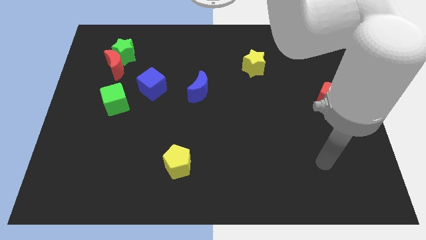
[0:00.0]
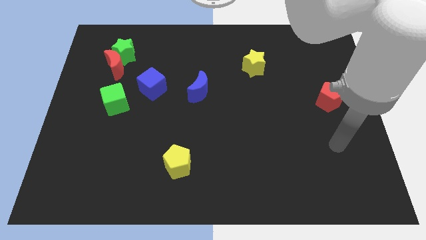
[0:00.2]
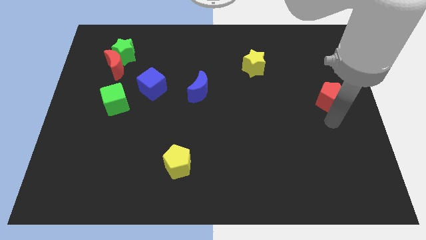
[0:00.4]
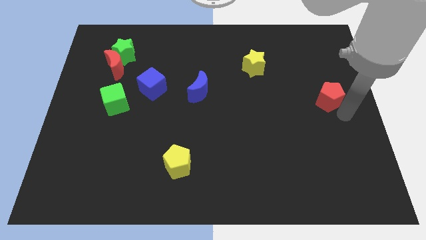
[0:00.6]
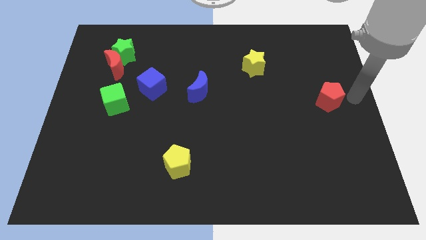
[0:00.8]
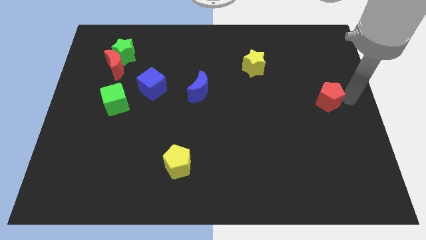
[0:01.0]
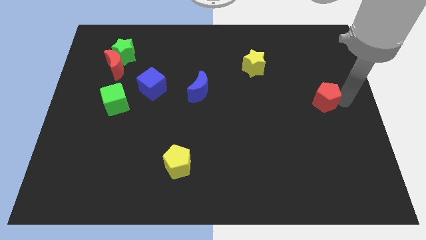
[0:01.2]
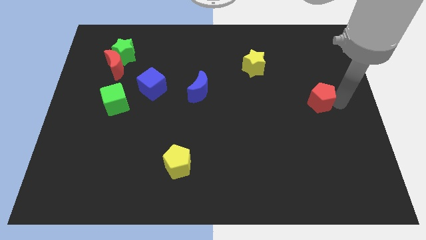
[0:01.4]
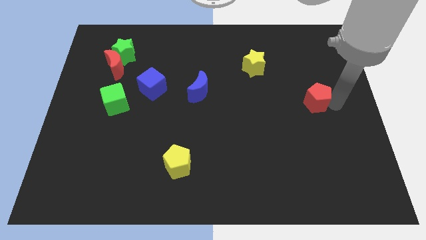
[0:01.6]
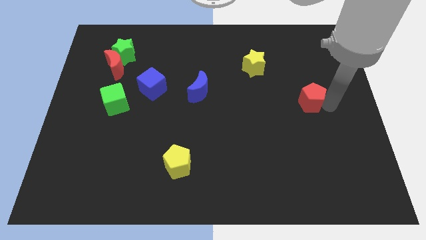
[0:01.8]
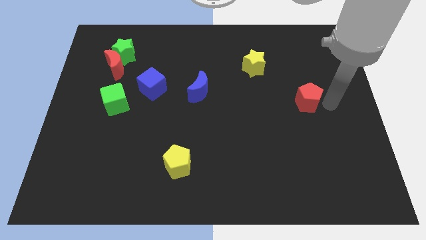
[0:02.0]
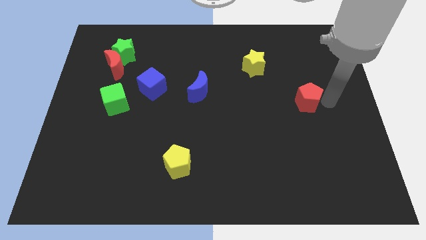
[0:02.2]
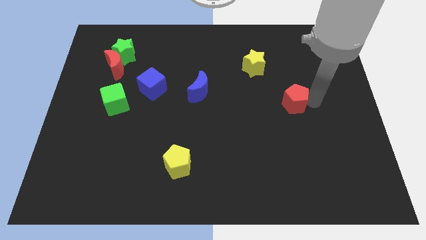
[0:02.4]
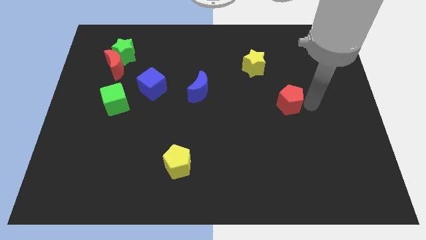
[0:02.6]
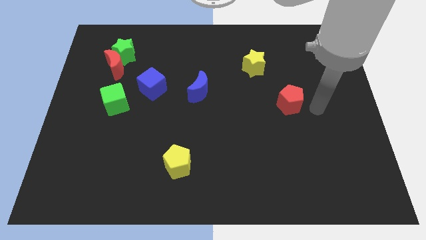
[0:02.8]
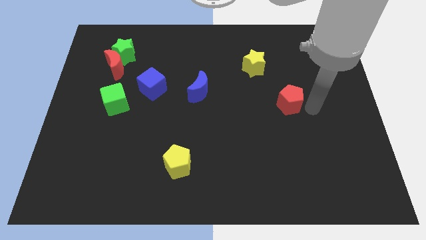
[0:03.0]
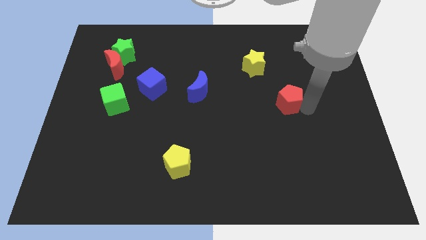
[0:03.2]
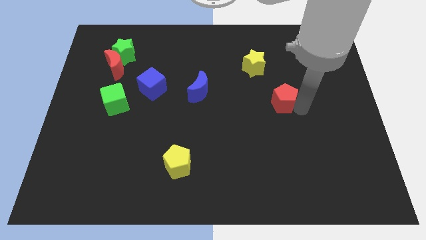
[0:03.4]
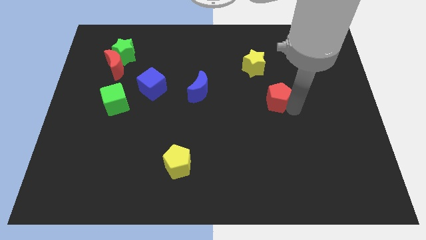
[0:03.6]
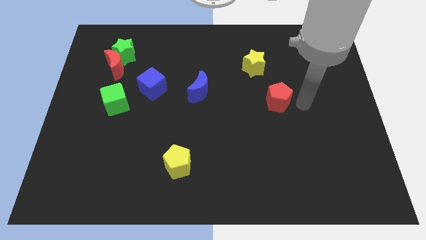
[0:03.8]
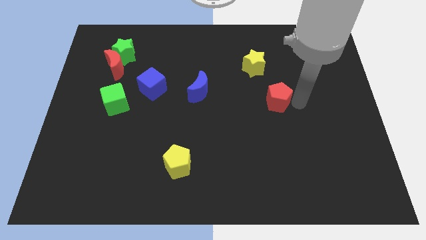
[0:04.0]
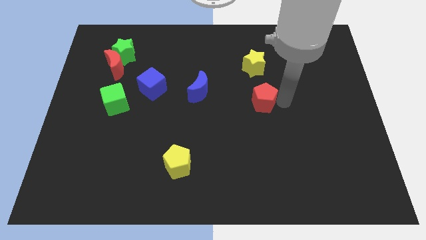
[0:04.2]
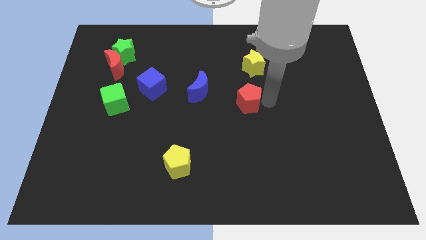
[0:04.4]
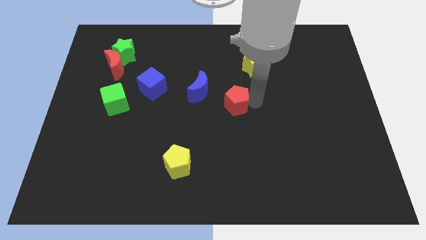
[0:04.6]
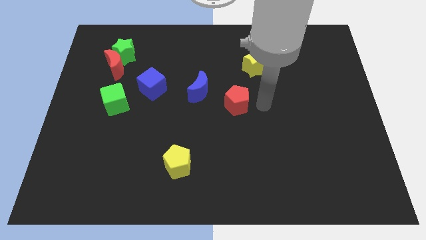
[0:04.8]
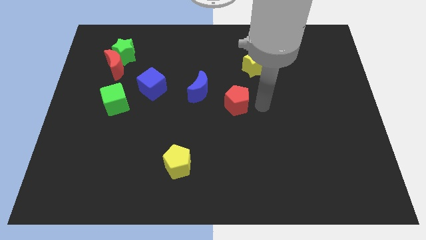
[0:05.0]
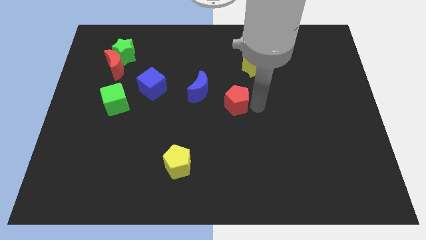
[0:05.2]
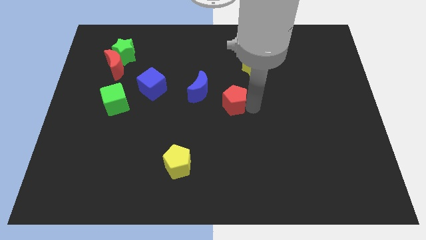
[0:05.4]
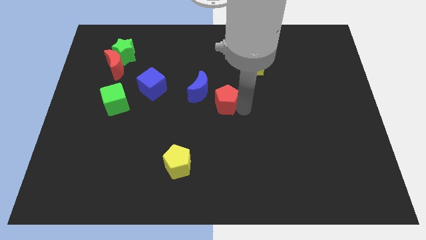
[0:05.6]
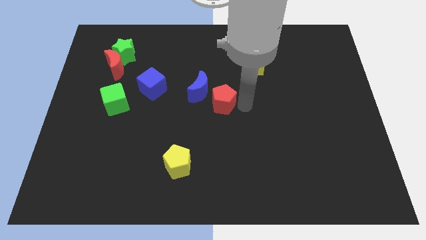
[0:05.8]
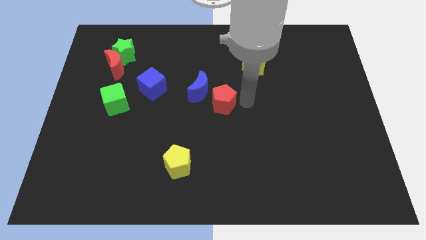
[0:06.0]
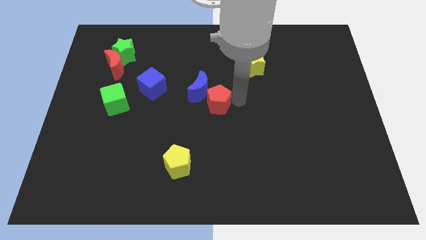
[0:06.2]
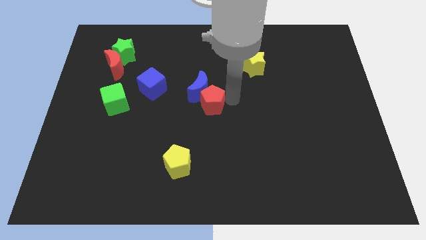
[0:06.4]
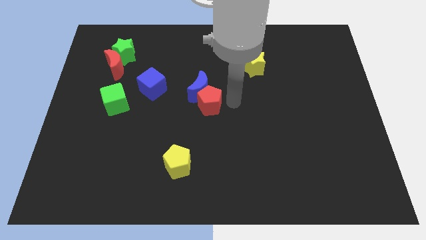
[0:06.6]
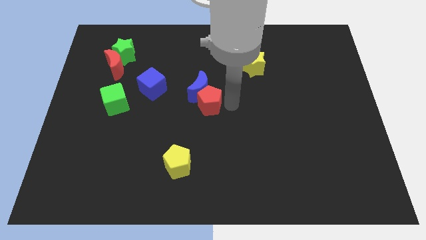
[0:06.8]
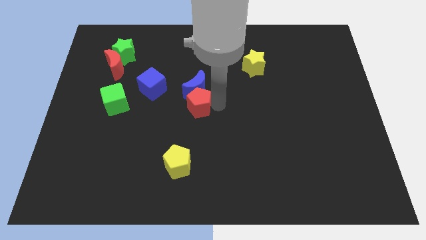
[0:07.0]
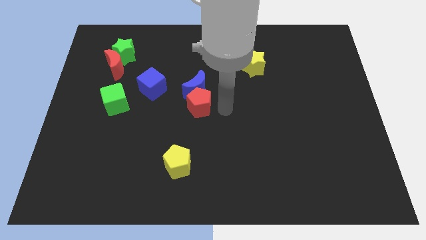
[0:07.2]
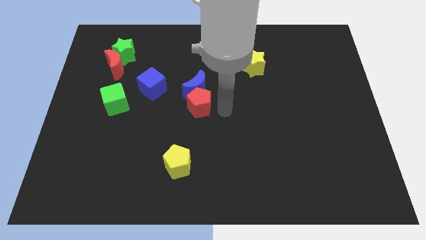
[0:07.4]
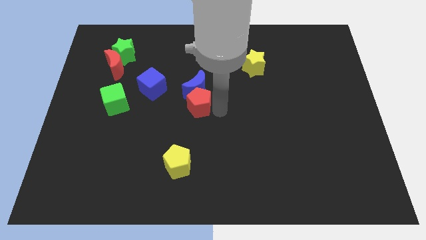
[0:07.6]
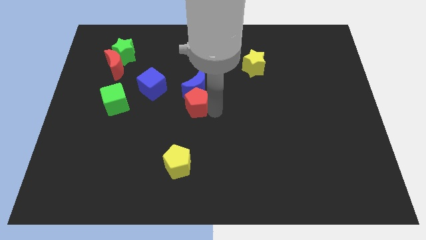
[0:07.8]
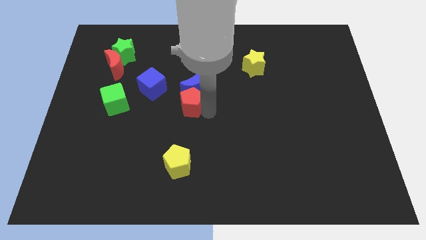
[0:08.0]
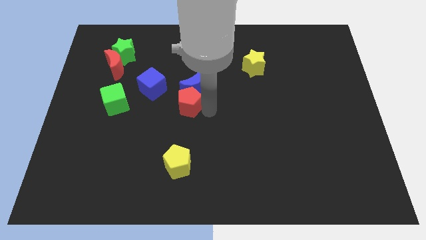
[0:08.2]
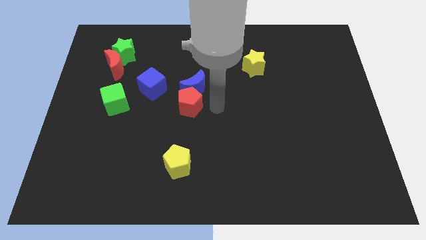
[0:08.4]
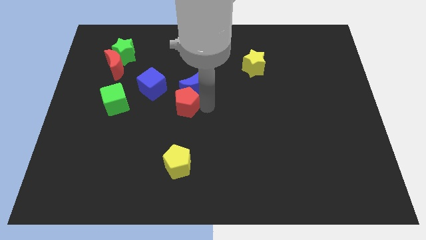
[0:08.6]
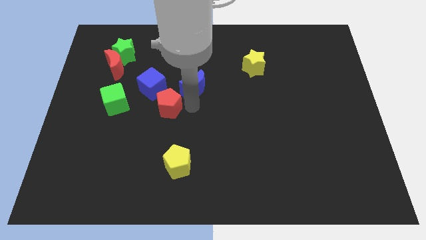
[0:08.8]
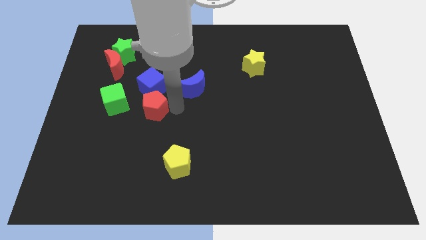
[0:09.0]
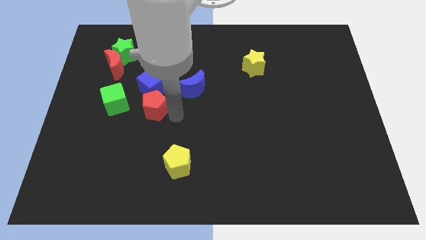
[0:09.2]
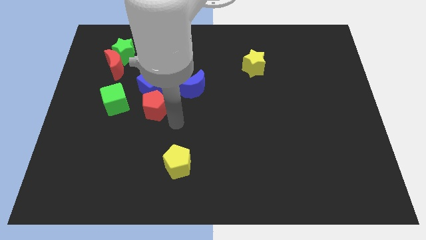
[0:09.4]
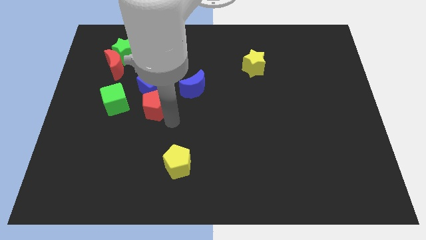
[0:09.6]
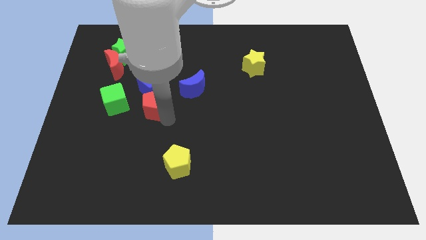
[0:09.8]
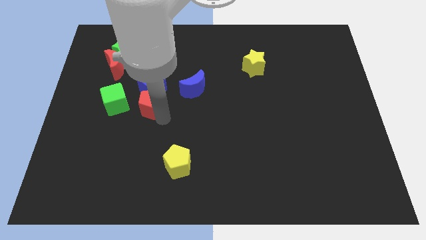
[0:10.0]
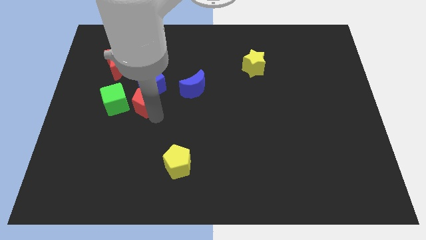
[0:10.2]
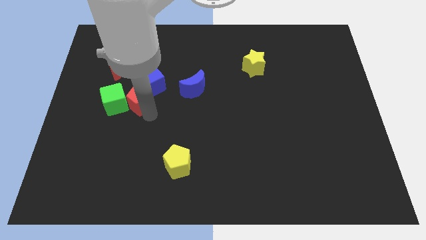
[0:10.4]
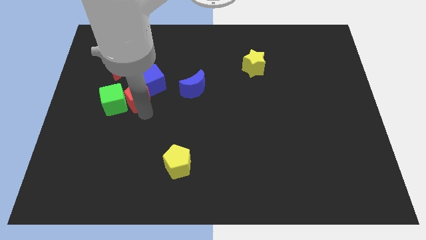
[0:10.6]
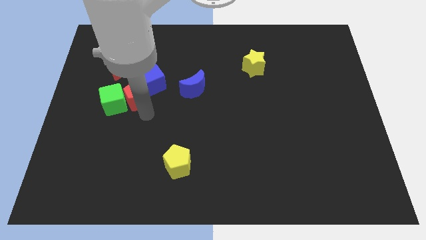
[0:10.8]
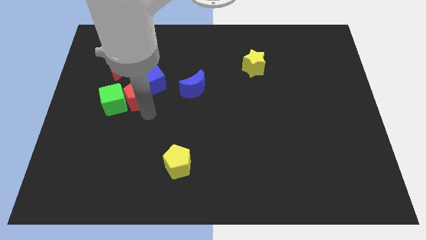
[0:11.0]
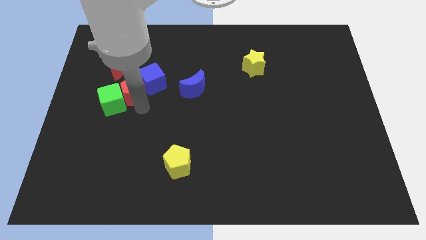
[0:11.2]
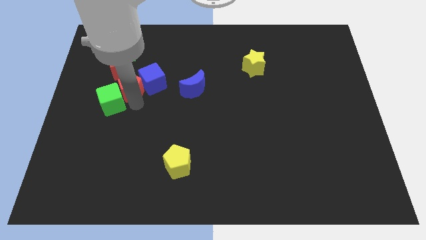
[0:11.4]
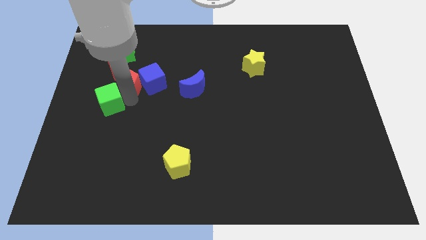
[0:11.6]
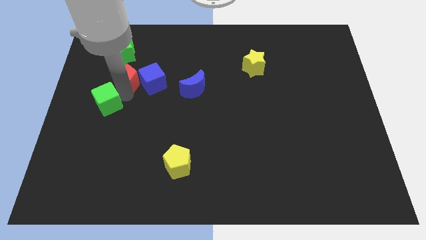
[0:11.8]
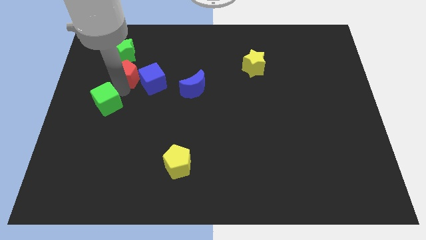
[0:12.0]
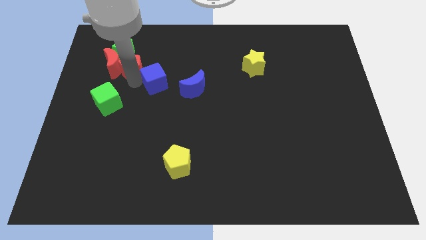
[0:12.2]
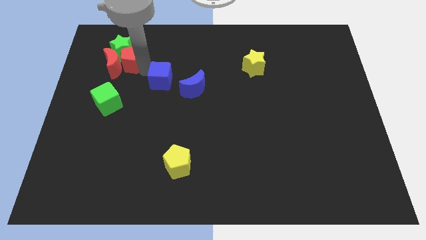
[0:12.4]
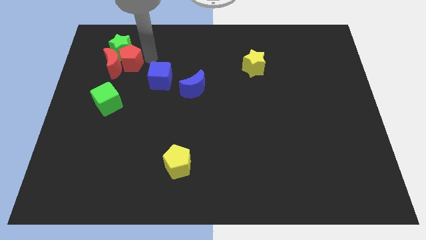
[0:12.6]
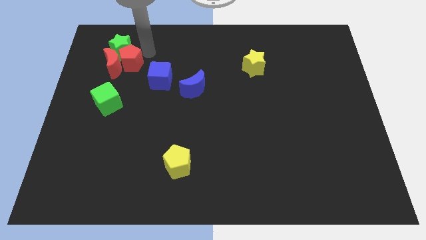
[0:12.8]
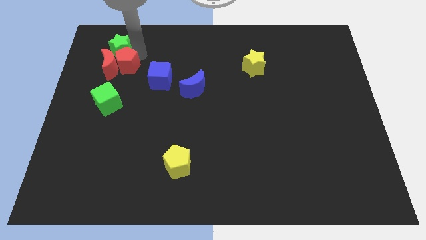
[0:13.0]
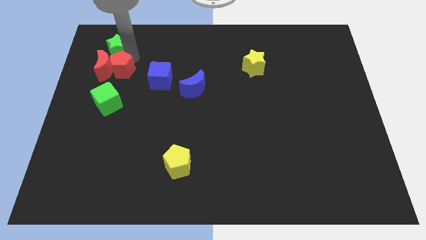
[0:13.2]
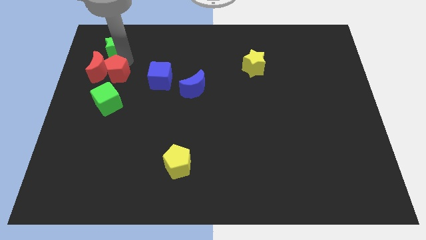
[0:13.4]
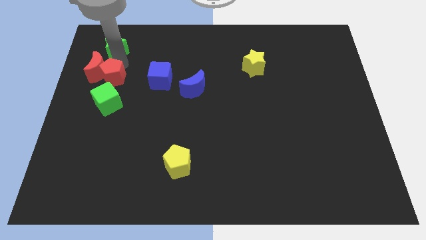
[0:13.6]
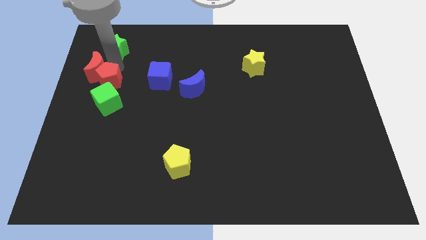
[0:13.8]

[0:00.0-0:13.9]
move the red pentagon to the top left side of the green cube

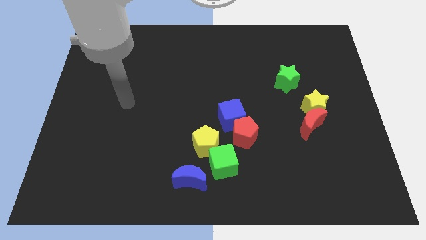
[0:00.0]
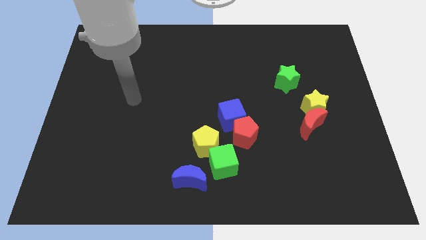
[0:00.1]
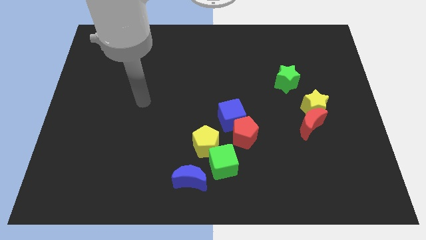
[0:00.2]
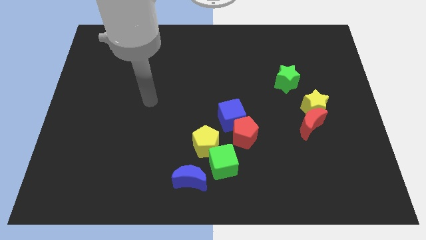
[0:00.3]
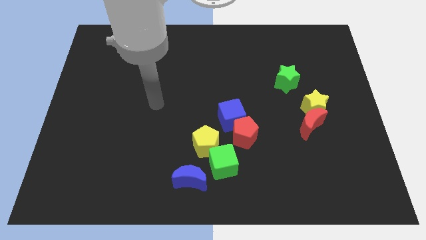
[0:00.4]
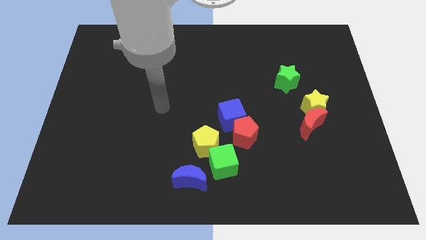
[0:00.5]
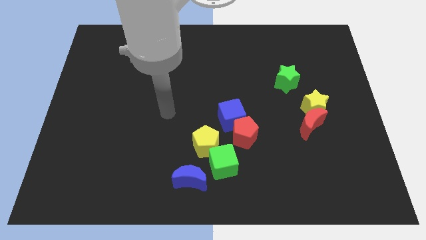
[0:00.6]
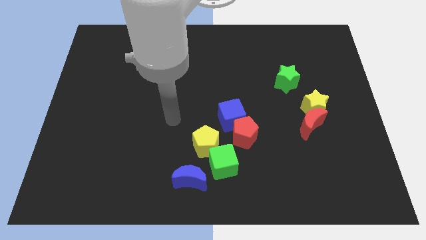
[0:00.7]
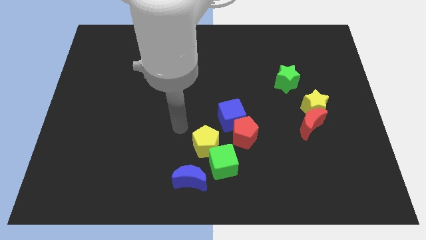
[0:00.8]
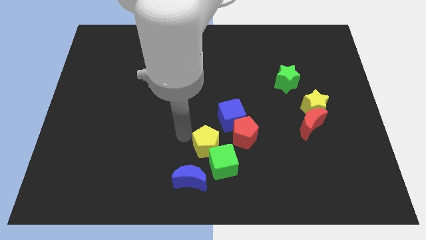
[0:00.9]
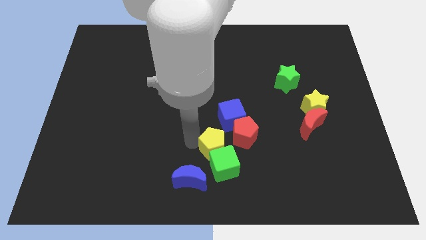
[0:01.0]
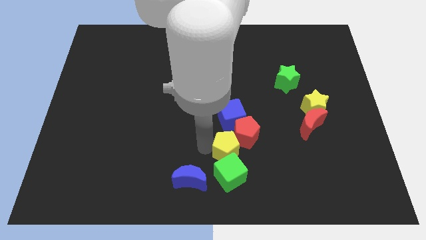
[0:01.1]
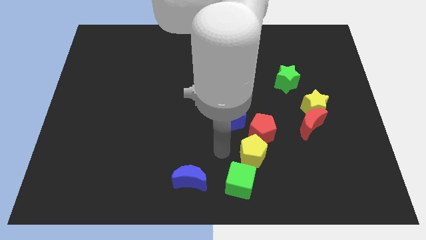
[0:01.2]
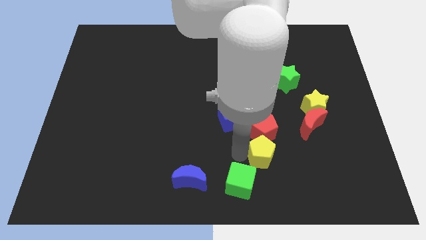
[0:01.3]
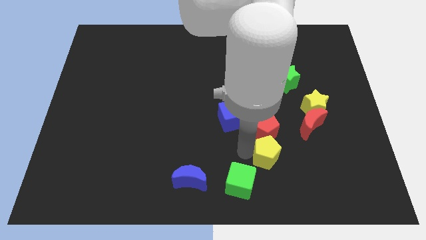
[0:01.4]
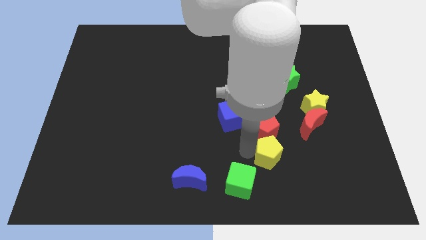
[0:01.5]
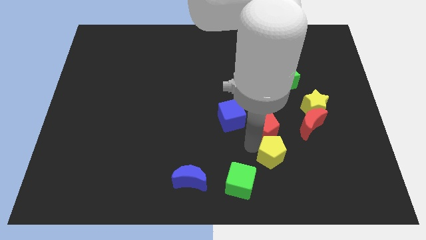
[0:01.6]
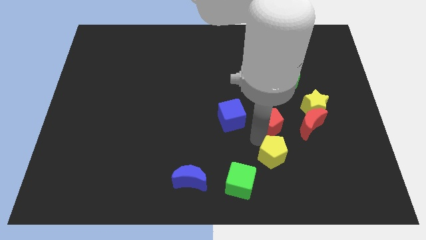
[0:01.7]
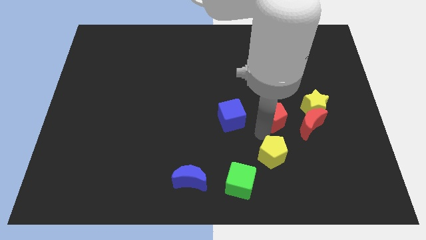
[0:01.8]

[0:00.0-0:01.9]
put the red pentagon diagonally up and to the left of the red moon
